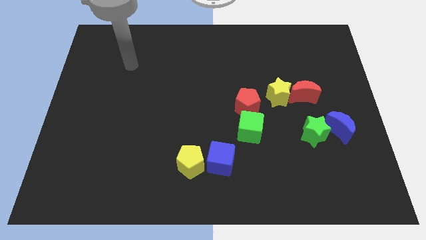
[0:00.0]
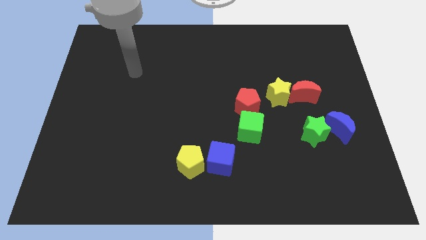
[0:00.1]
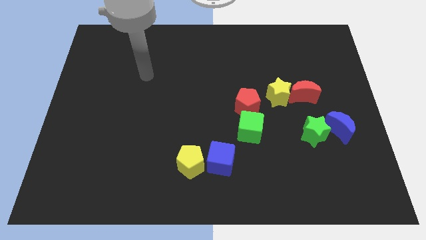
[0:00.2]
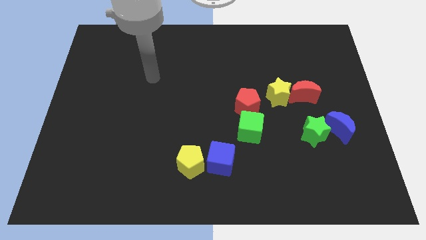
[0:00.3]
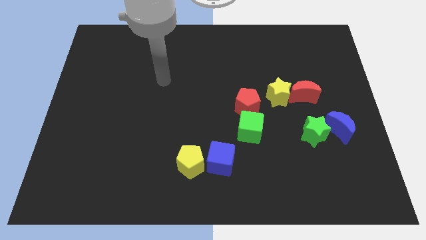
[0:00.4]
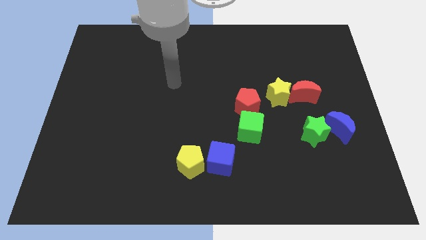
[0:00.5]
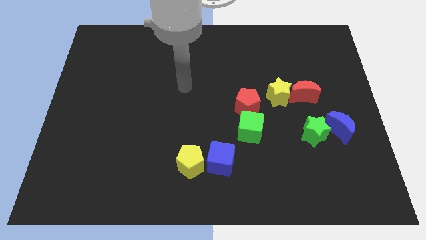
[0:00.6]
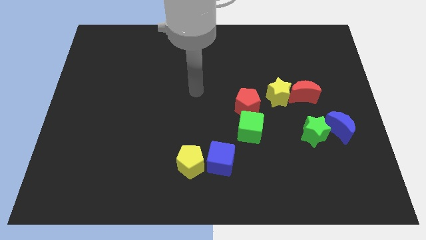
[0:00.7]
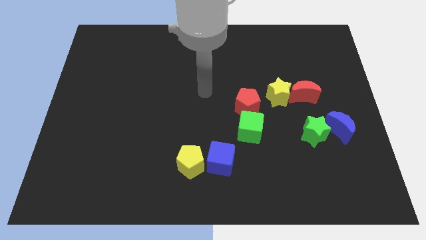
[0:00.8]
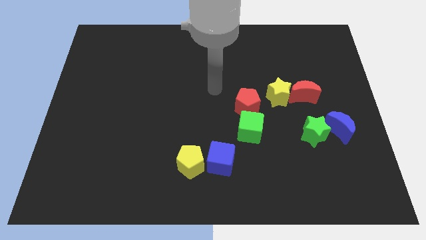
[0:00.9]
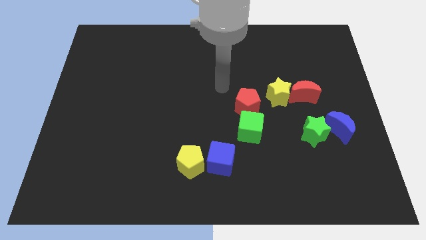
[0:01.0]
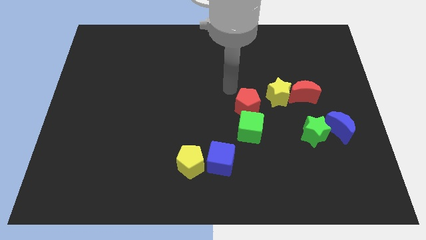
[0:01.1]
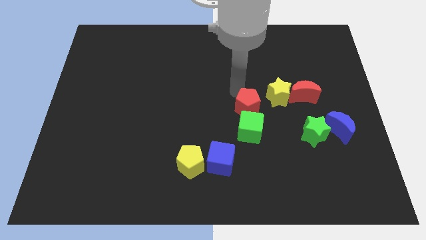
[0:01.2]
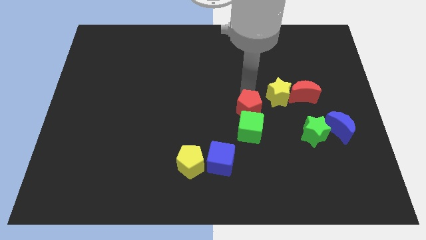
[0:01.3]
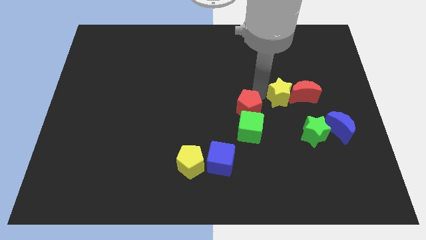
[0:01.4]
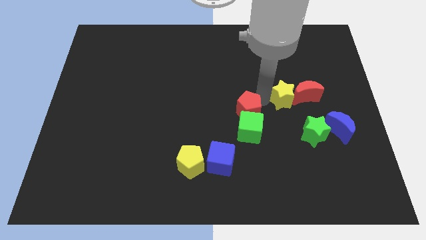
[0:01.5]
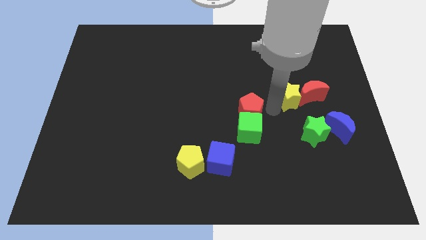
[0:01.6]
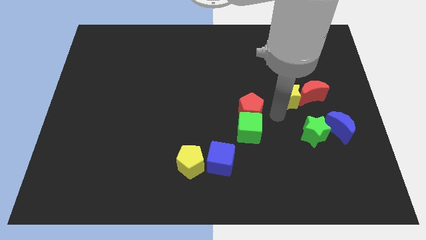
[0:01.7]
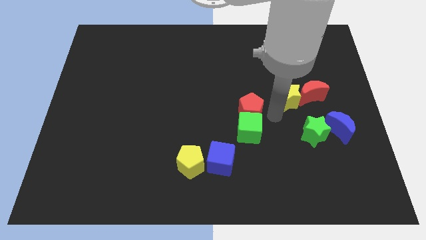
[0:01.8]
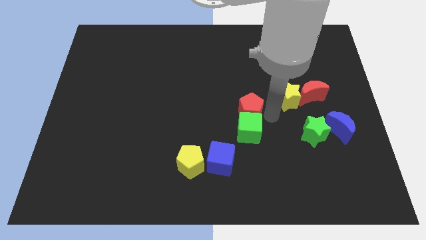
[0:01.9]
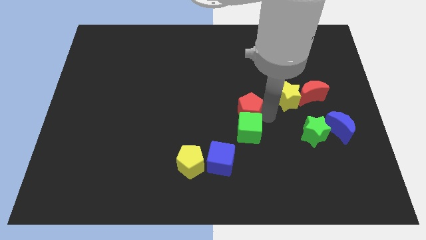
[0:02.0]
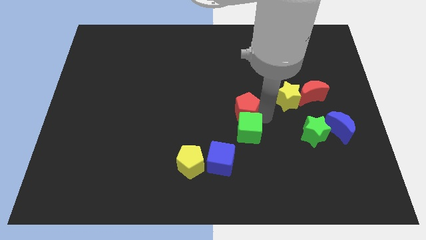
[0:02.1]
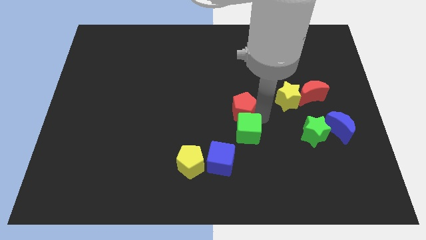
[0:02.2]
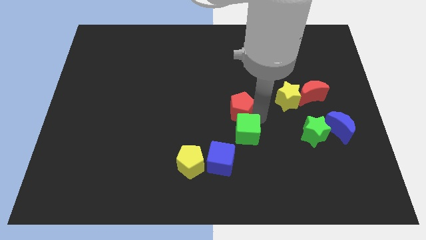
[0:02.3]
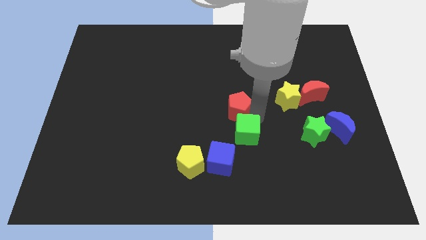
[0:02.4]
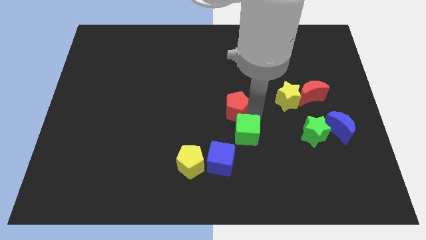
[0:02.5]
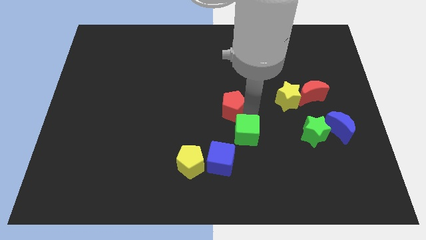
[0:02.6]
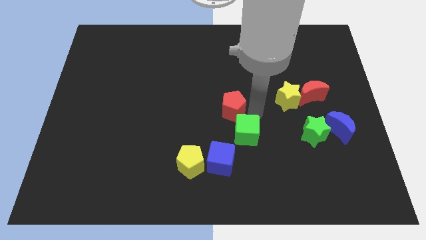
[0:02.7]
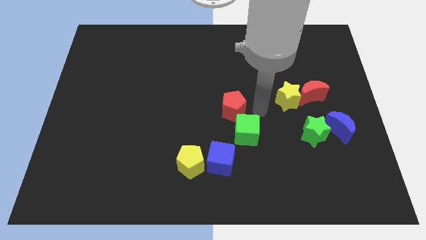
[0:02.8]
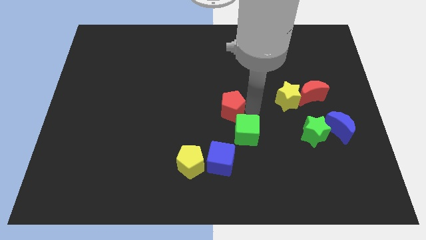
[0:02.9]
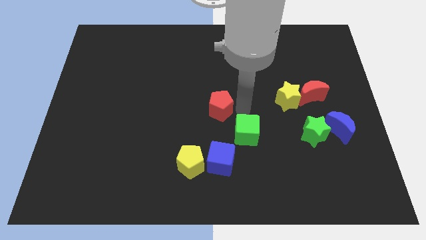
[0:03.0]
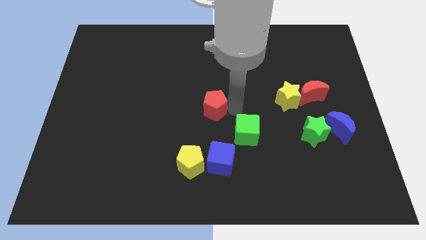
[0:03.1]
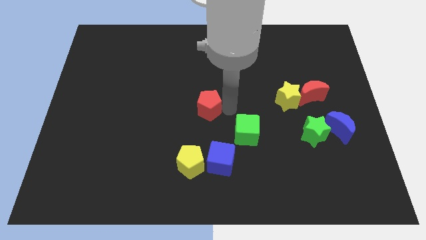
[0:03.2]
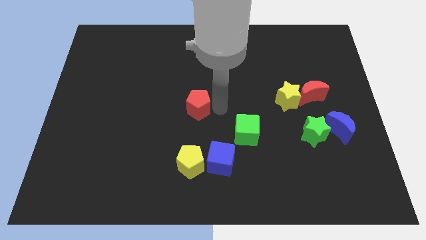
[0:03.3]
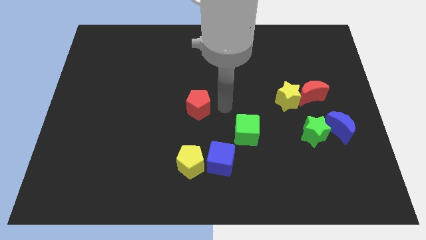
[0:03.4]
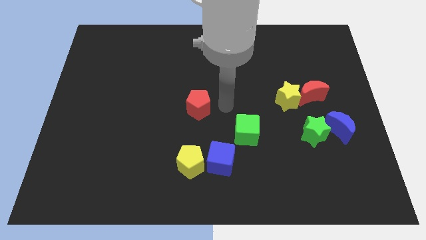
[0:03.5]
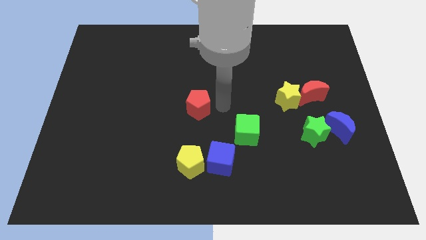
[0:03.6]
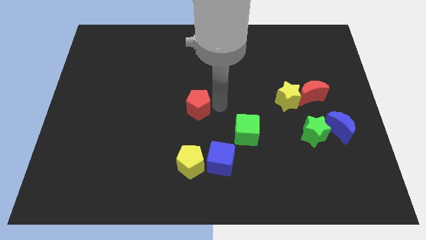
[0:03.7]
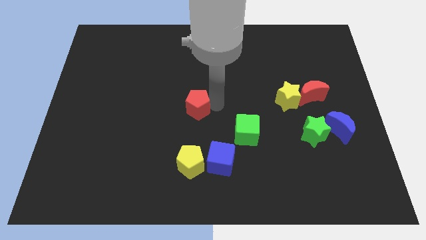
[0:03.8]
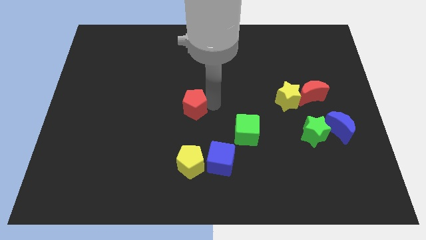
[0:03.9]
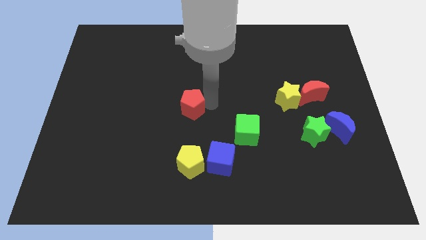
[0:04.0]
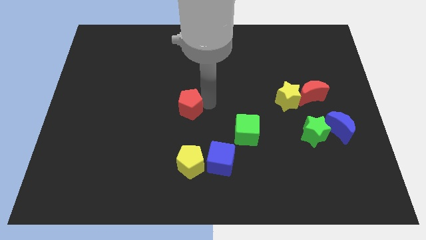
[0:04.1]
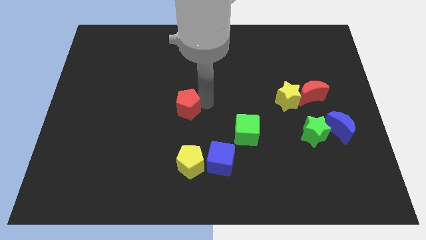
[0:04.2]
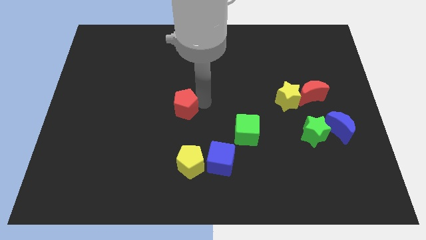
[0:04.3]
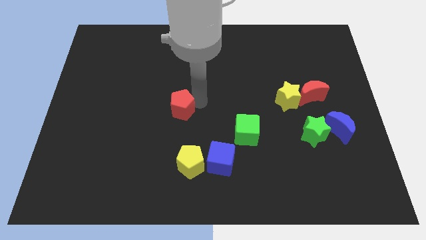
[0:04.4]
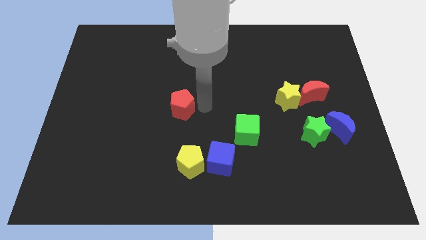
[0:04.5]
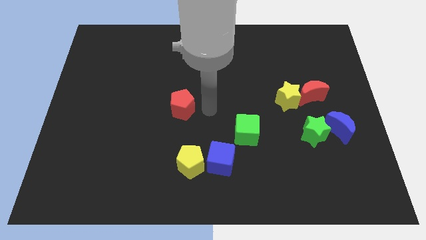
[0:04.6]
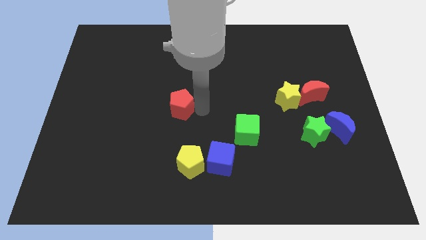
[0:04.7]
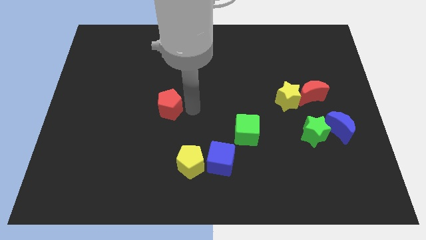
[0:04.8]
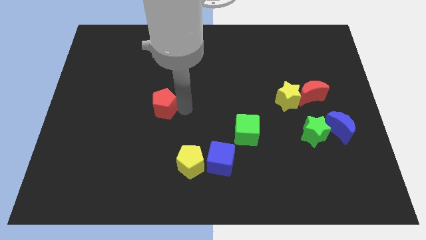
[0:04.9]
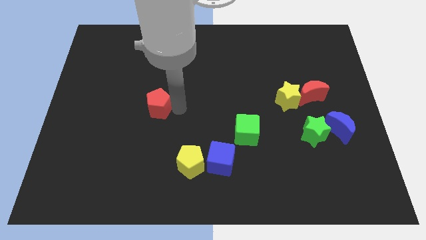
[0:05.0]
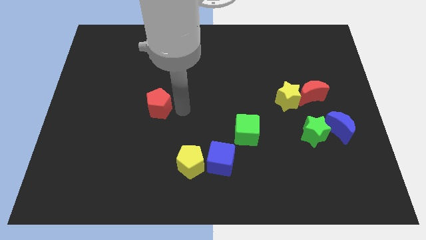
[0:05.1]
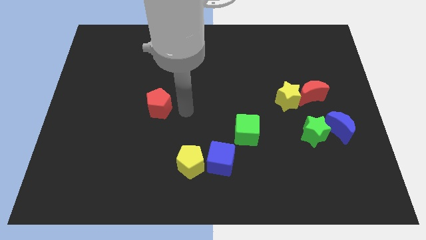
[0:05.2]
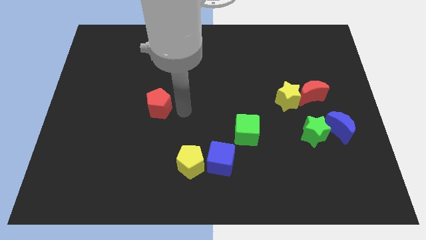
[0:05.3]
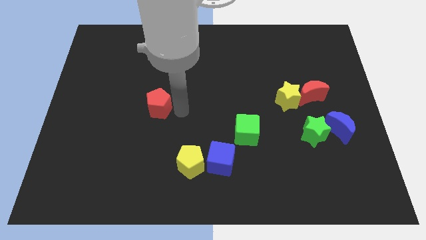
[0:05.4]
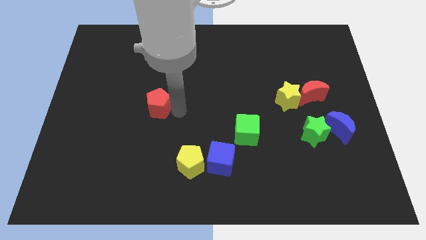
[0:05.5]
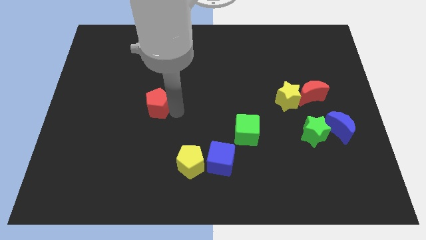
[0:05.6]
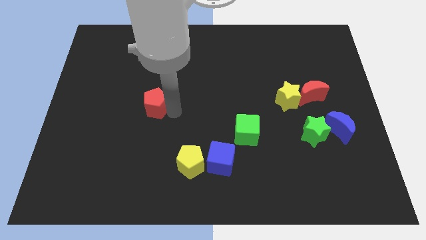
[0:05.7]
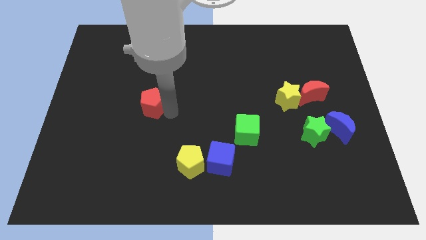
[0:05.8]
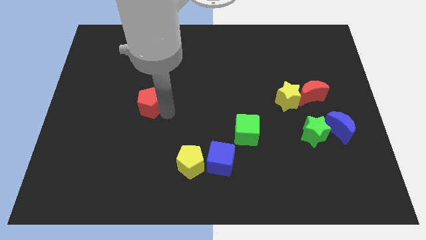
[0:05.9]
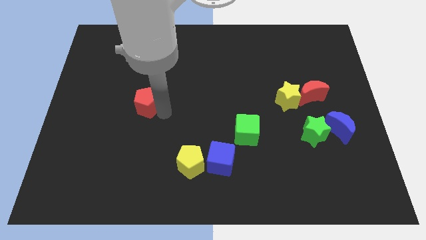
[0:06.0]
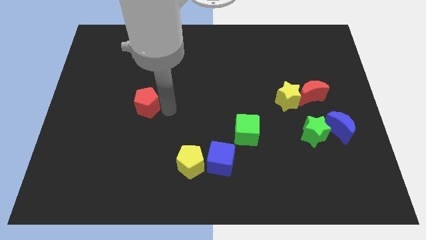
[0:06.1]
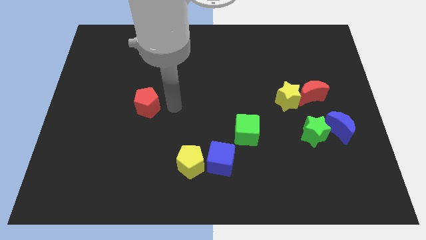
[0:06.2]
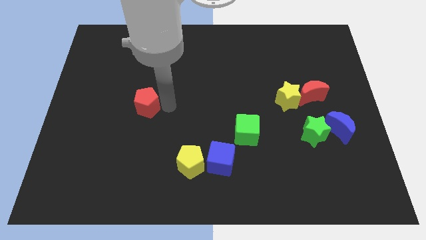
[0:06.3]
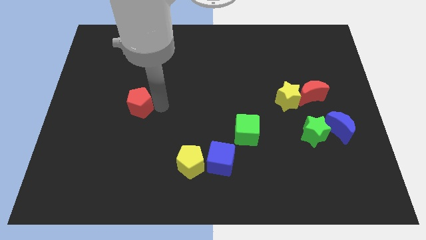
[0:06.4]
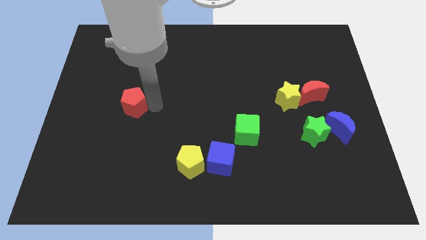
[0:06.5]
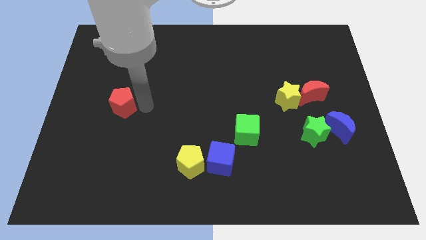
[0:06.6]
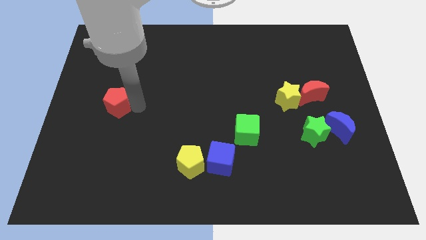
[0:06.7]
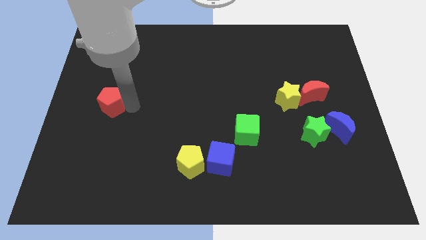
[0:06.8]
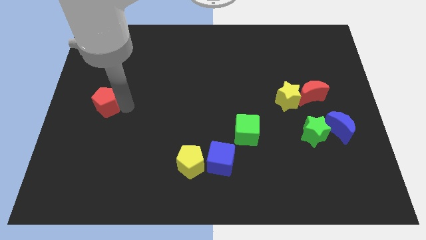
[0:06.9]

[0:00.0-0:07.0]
slide the red pentagon to the left side of the board
